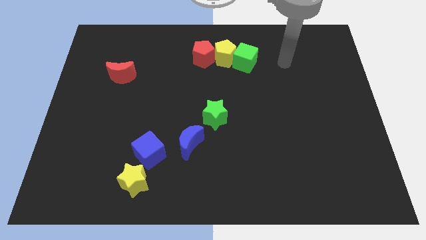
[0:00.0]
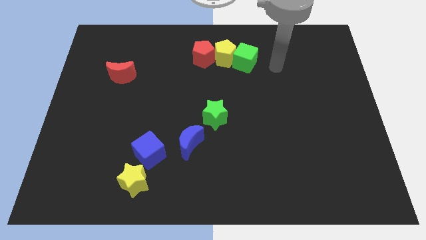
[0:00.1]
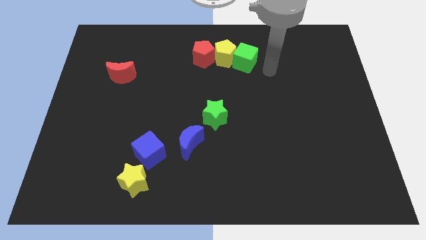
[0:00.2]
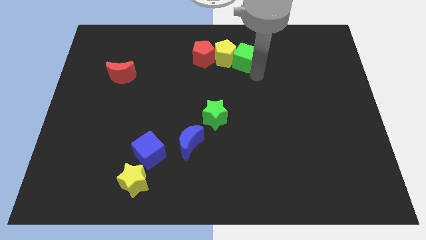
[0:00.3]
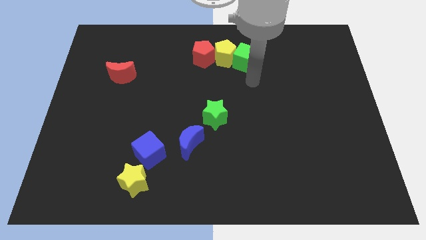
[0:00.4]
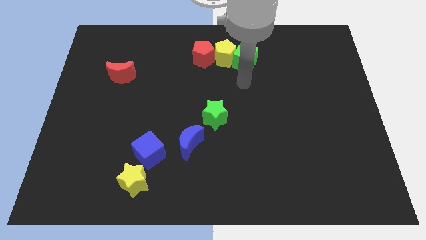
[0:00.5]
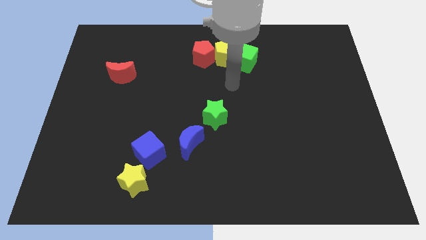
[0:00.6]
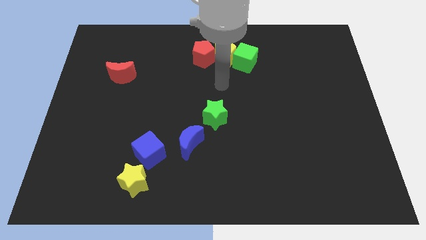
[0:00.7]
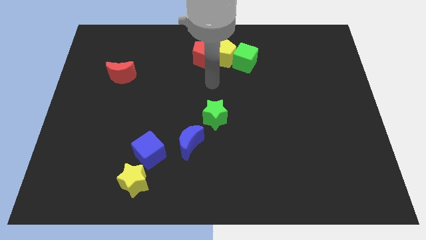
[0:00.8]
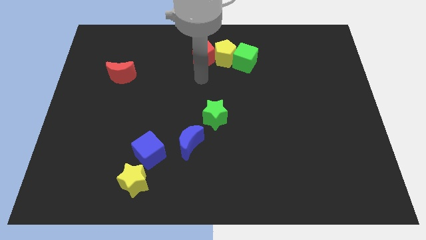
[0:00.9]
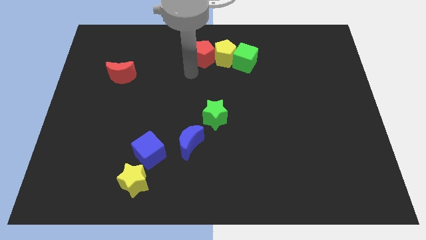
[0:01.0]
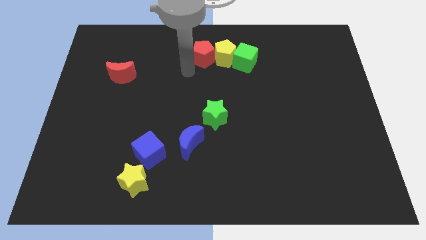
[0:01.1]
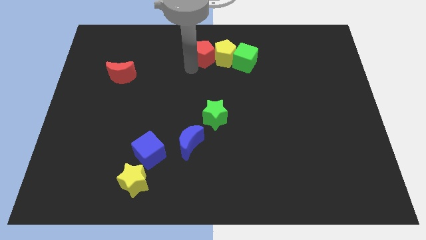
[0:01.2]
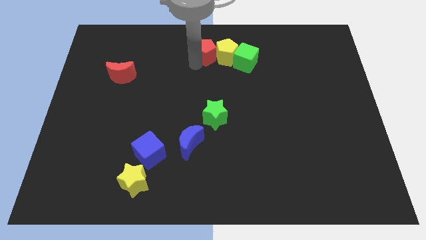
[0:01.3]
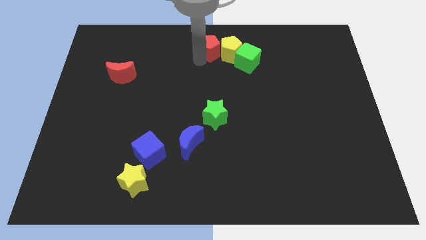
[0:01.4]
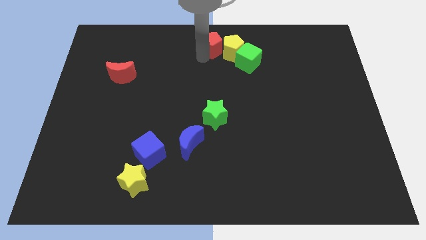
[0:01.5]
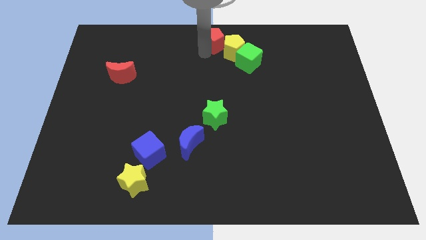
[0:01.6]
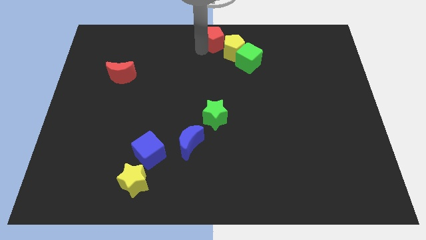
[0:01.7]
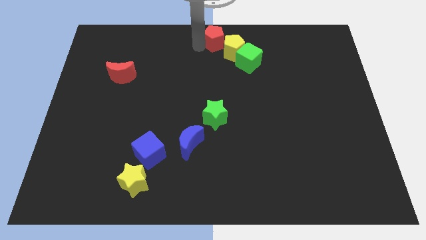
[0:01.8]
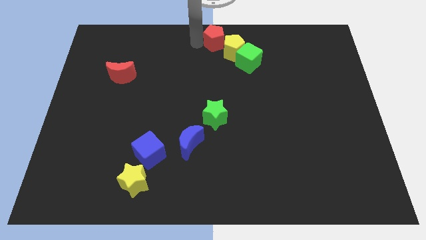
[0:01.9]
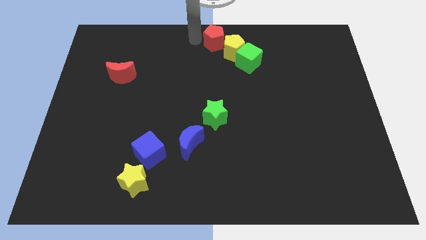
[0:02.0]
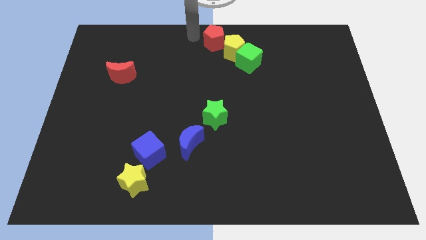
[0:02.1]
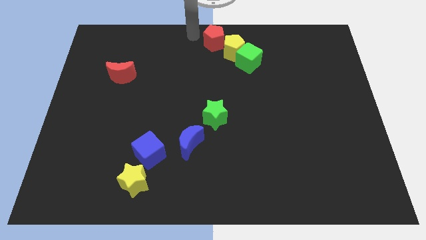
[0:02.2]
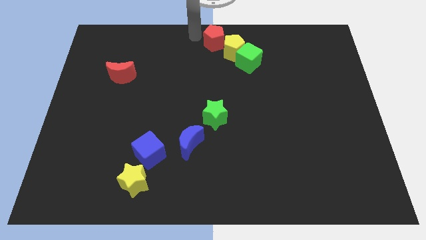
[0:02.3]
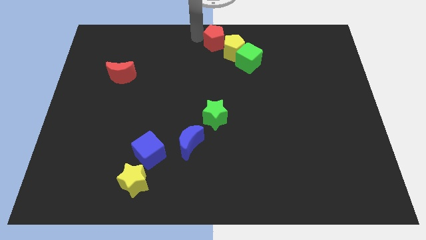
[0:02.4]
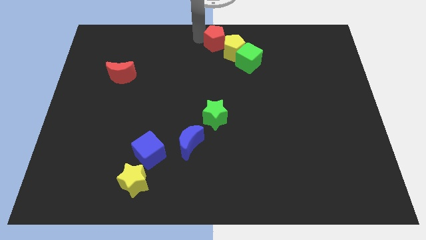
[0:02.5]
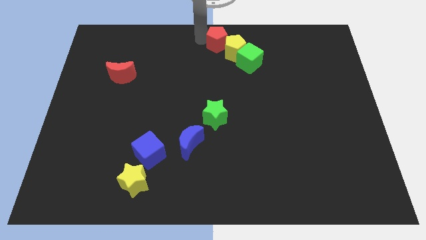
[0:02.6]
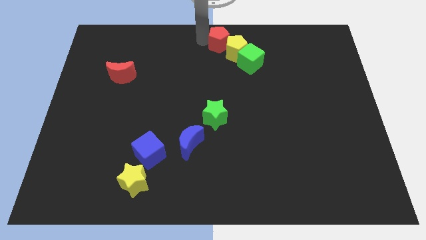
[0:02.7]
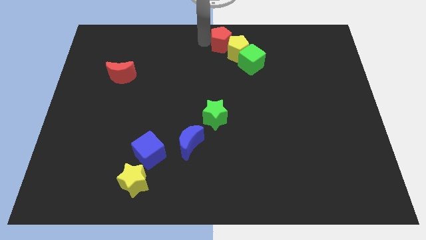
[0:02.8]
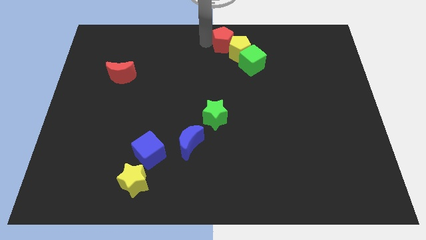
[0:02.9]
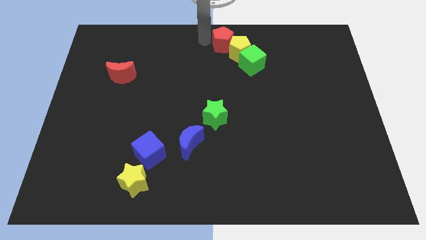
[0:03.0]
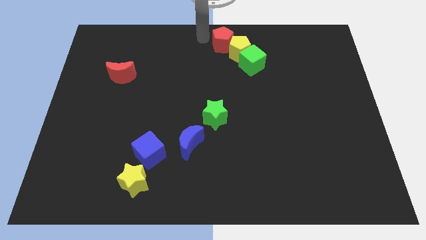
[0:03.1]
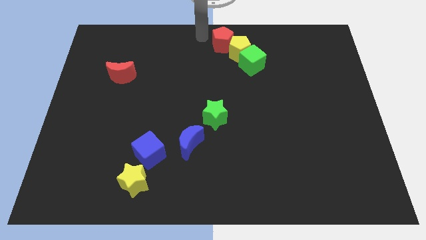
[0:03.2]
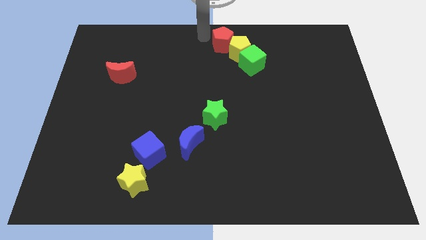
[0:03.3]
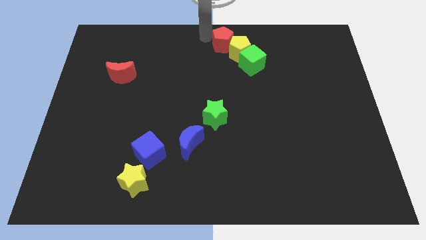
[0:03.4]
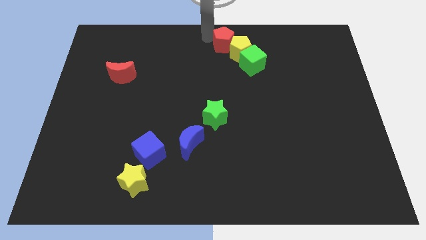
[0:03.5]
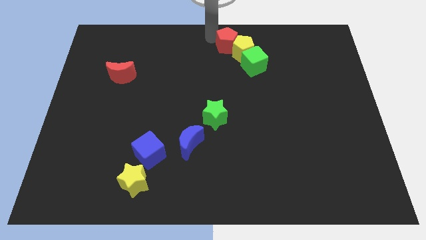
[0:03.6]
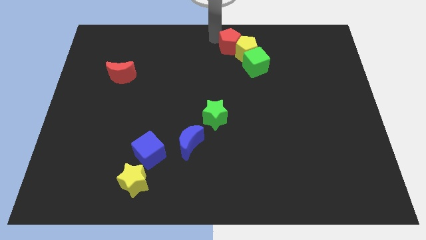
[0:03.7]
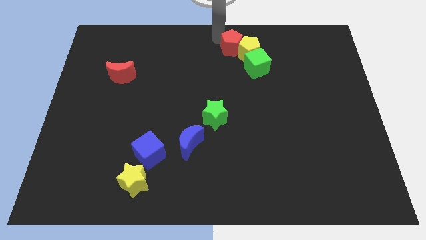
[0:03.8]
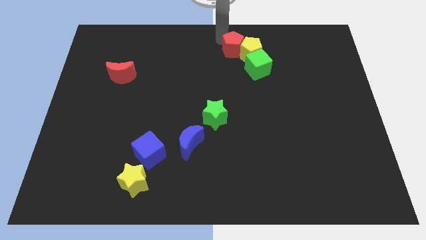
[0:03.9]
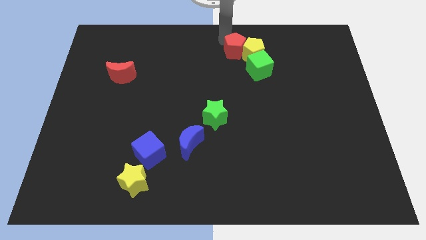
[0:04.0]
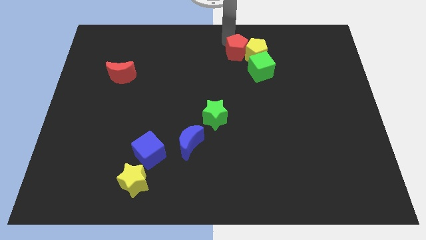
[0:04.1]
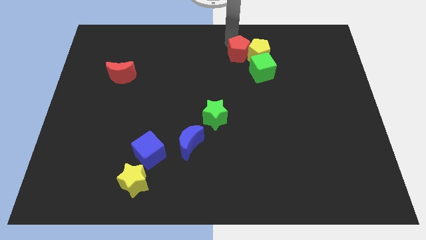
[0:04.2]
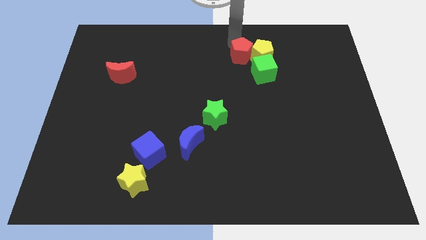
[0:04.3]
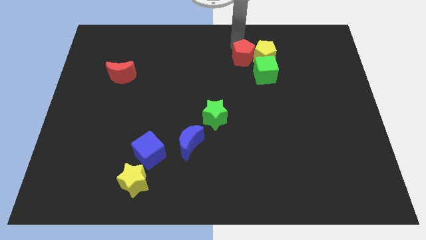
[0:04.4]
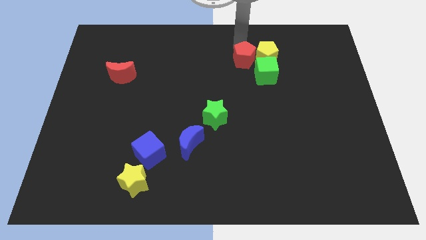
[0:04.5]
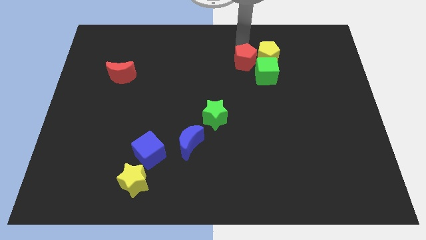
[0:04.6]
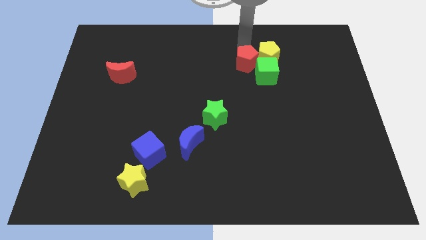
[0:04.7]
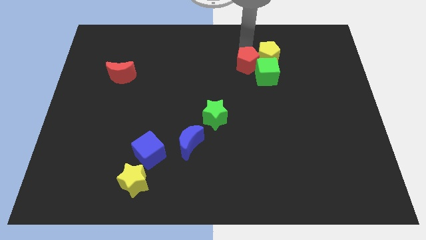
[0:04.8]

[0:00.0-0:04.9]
slide the red pentagon close to the green cube

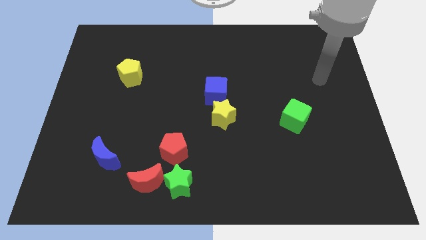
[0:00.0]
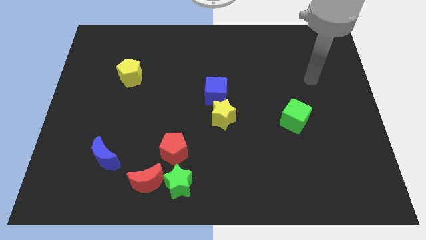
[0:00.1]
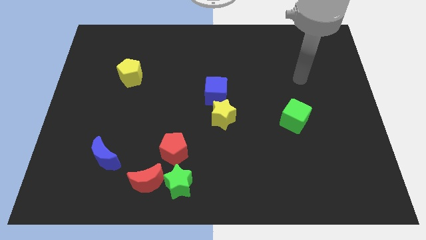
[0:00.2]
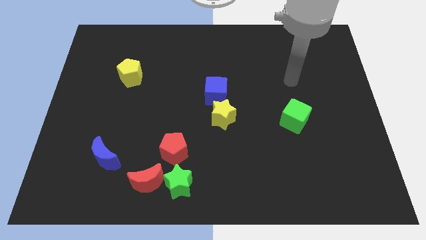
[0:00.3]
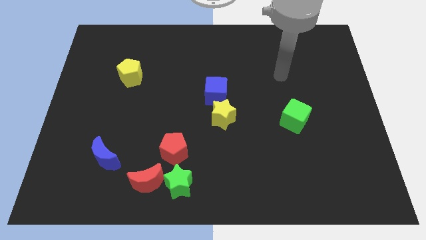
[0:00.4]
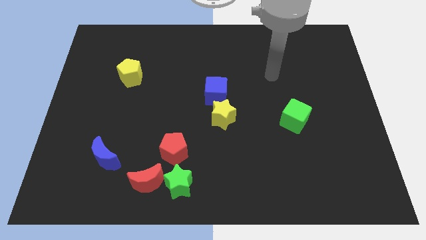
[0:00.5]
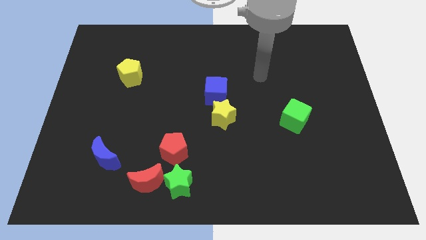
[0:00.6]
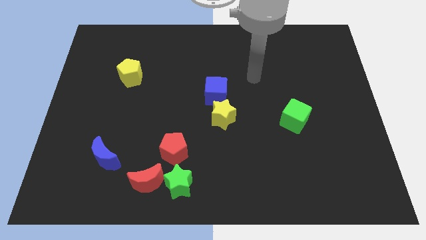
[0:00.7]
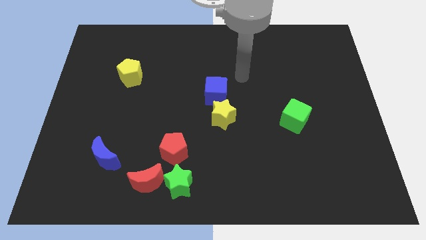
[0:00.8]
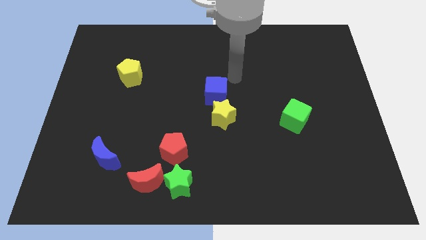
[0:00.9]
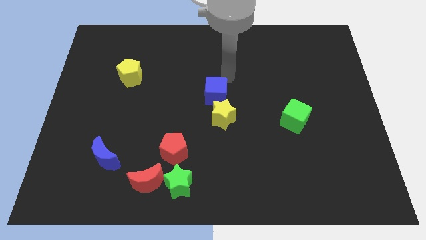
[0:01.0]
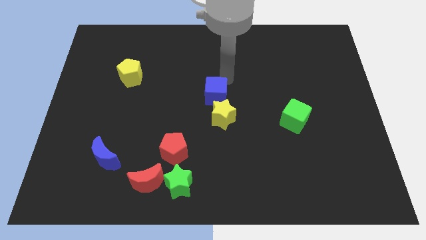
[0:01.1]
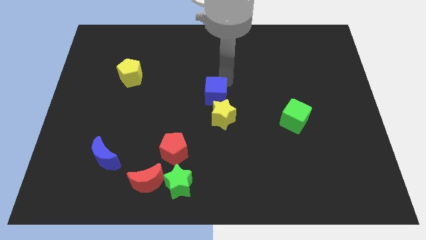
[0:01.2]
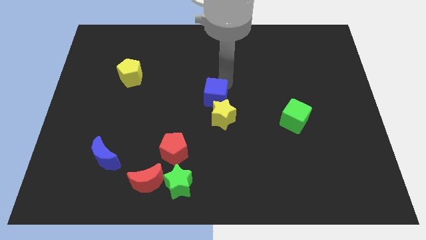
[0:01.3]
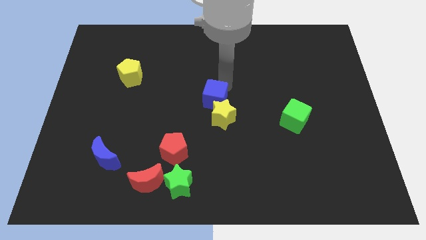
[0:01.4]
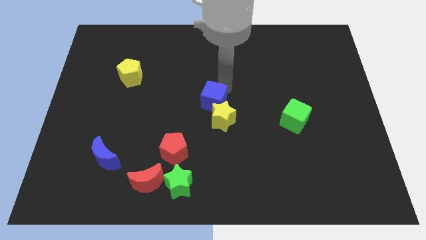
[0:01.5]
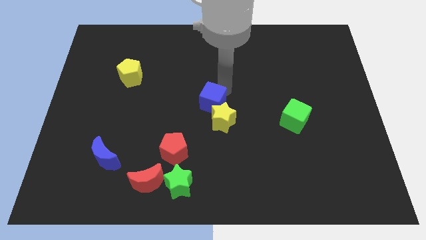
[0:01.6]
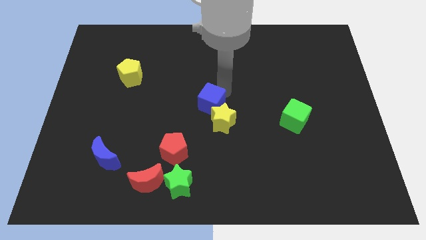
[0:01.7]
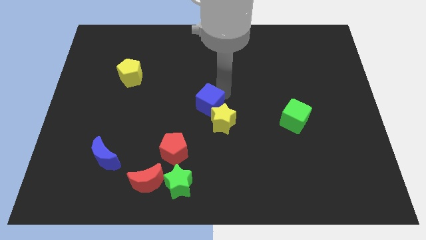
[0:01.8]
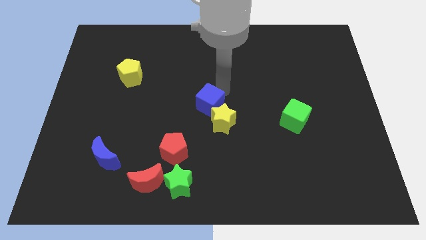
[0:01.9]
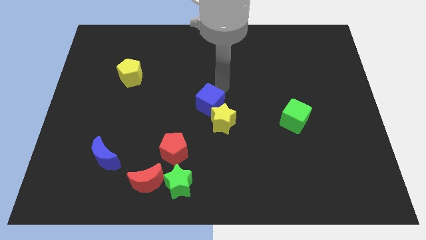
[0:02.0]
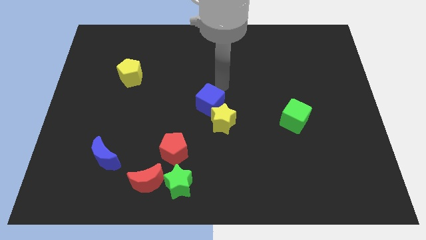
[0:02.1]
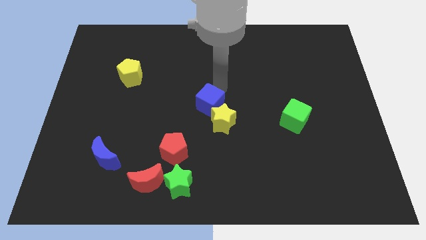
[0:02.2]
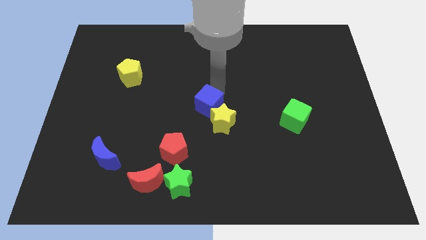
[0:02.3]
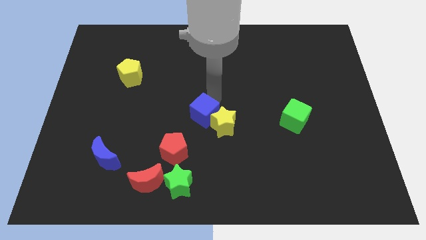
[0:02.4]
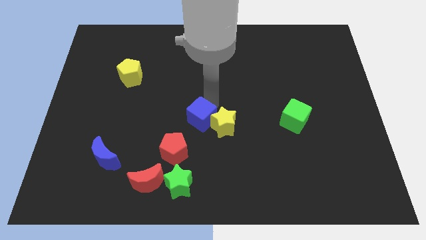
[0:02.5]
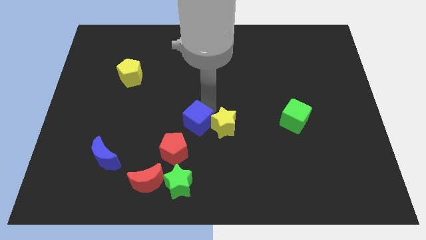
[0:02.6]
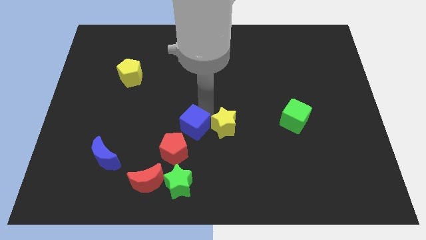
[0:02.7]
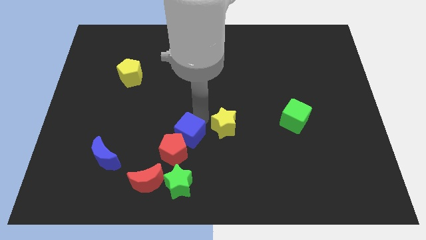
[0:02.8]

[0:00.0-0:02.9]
move the blue cube close to the red pentagon
